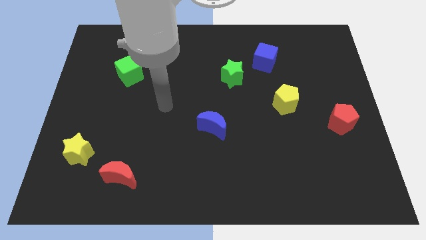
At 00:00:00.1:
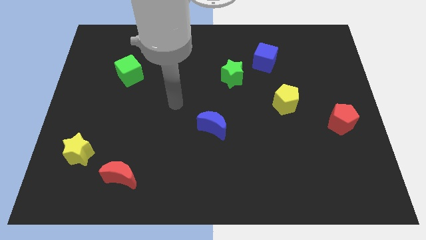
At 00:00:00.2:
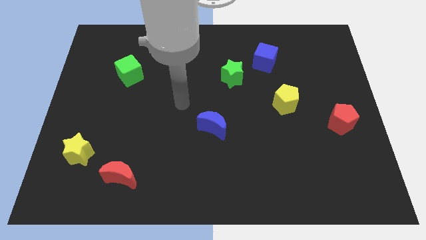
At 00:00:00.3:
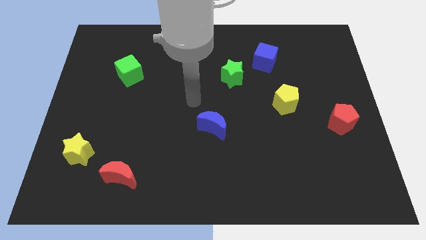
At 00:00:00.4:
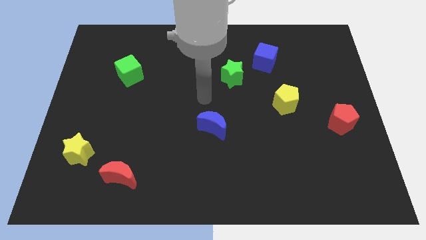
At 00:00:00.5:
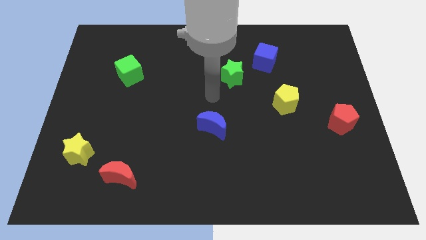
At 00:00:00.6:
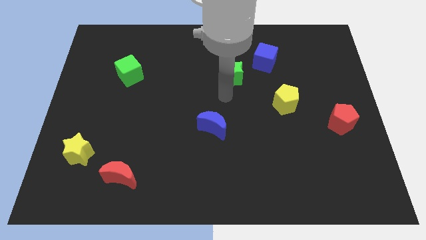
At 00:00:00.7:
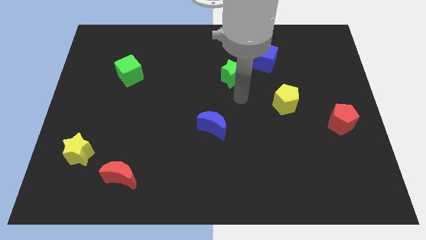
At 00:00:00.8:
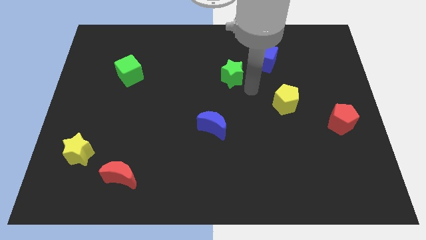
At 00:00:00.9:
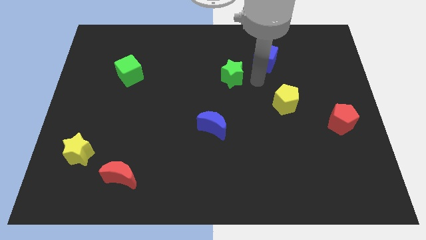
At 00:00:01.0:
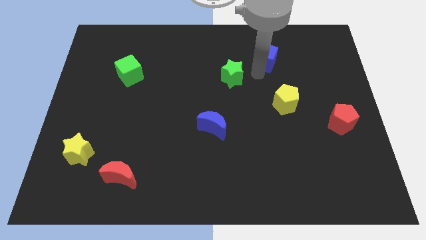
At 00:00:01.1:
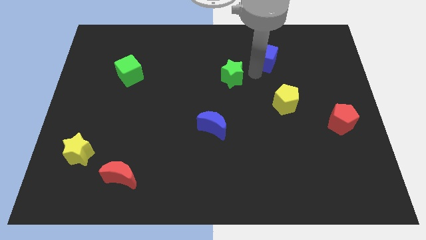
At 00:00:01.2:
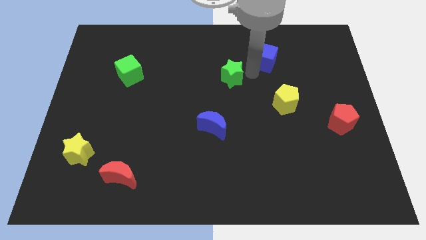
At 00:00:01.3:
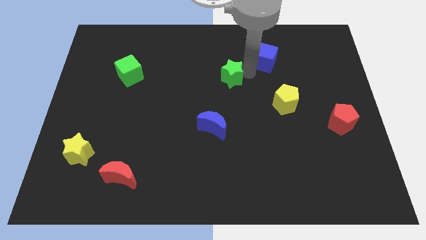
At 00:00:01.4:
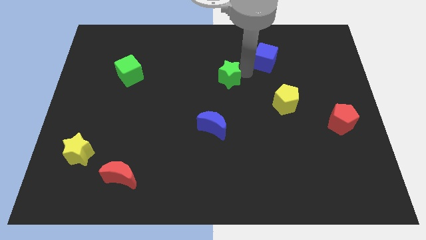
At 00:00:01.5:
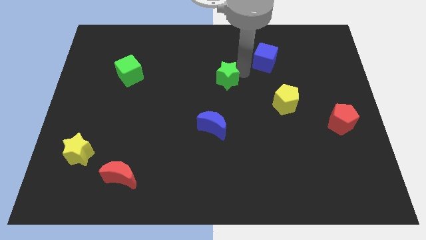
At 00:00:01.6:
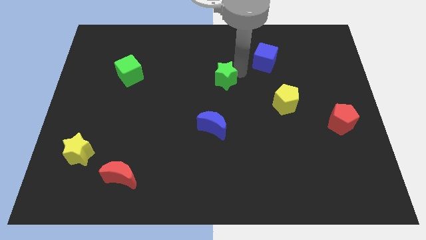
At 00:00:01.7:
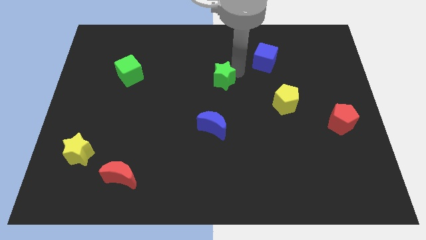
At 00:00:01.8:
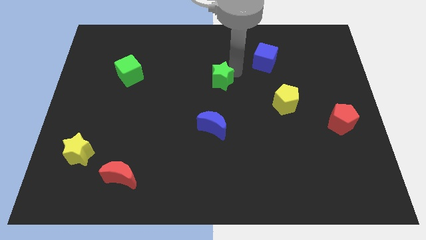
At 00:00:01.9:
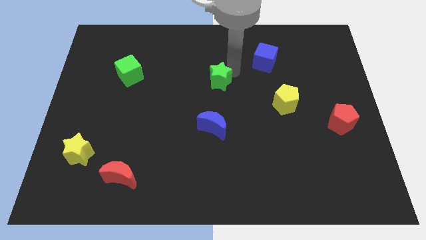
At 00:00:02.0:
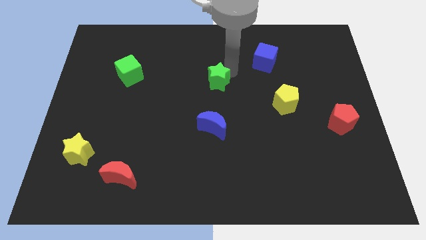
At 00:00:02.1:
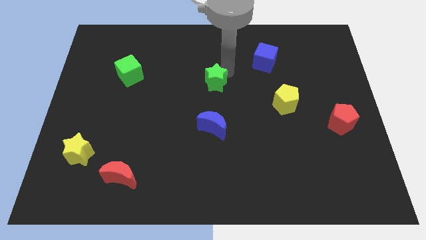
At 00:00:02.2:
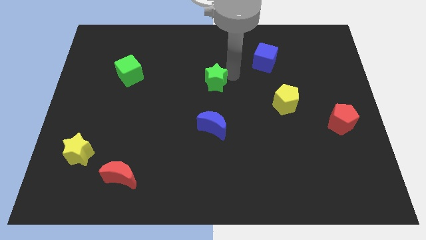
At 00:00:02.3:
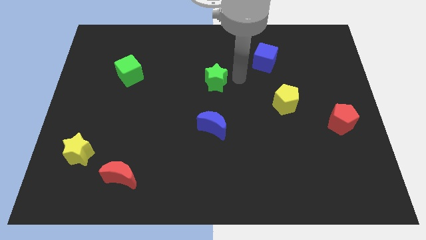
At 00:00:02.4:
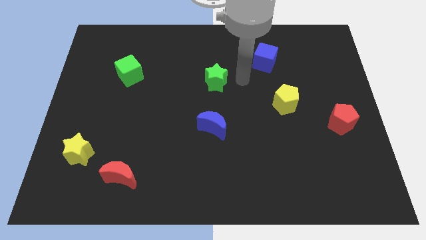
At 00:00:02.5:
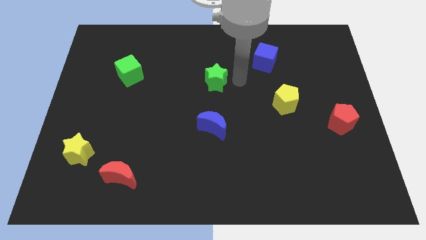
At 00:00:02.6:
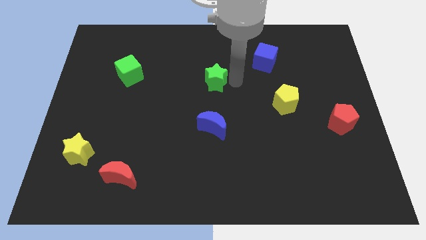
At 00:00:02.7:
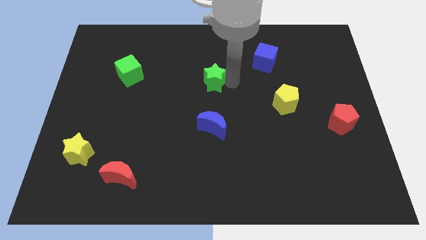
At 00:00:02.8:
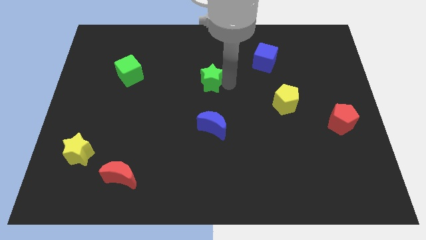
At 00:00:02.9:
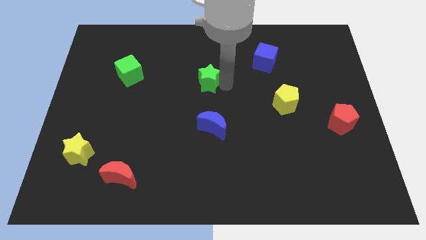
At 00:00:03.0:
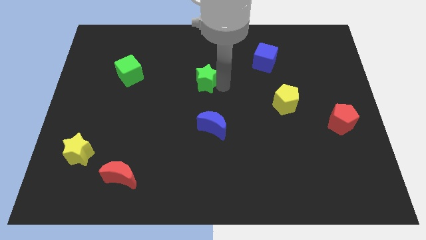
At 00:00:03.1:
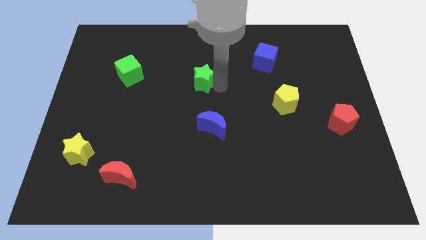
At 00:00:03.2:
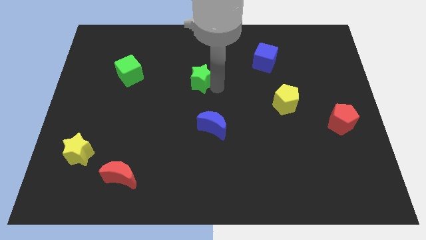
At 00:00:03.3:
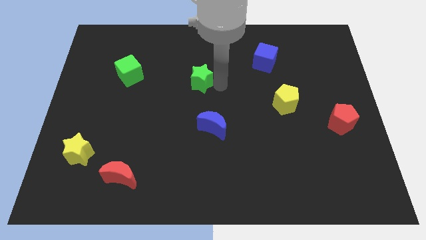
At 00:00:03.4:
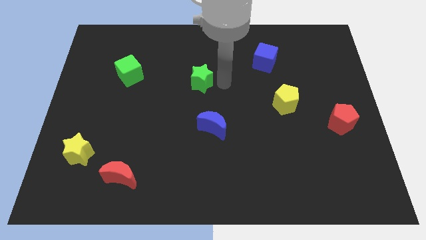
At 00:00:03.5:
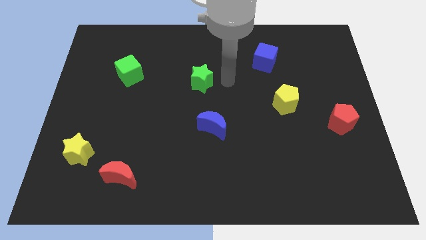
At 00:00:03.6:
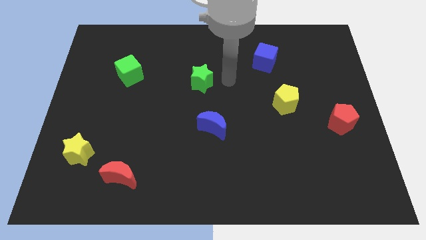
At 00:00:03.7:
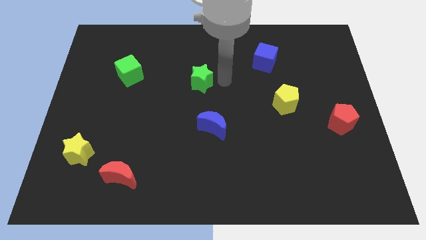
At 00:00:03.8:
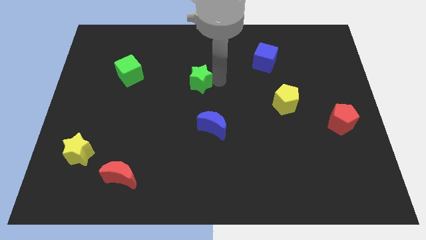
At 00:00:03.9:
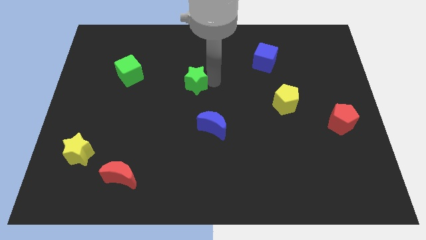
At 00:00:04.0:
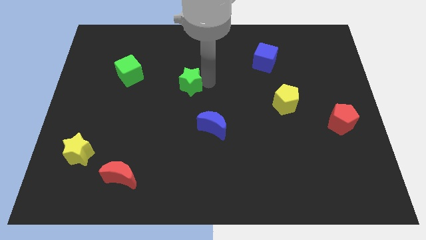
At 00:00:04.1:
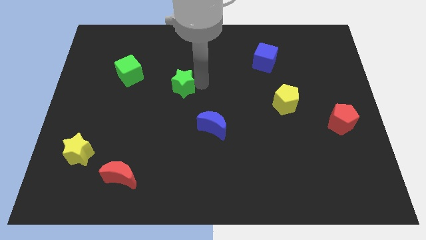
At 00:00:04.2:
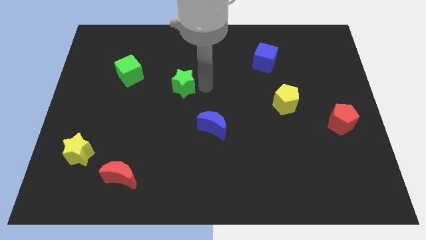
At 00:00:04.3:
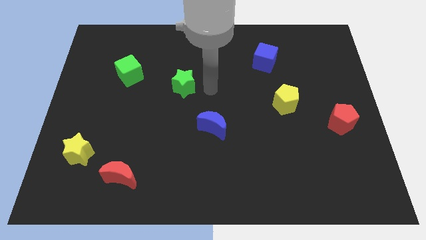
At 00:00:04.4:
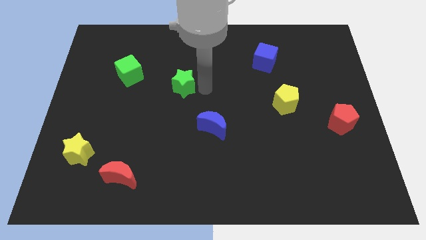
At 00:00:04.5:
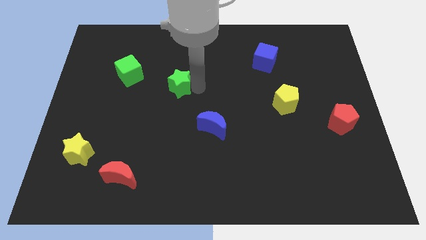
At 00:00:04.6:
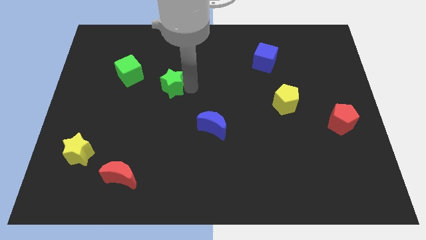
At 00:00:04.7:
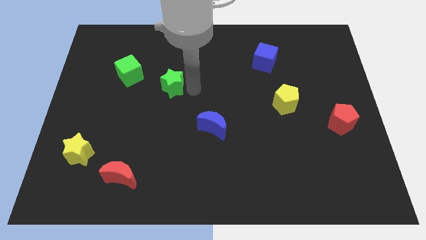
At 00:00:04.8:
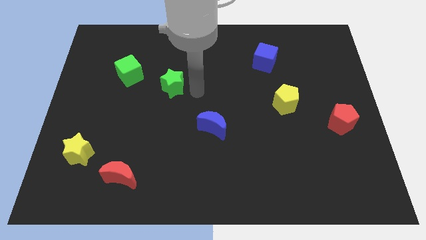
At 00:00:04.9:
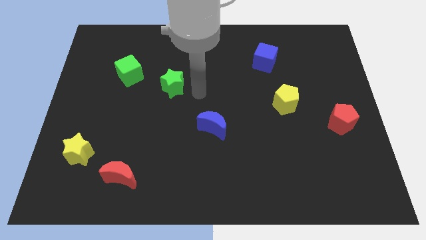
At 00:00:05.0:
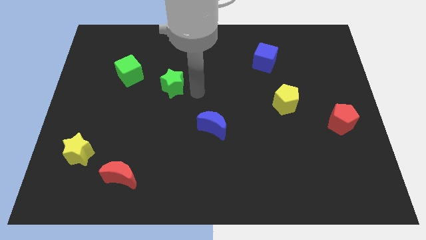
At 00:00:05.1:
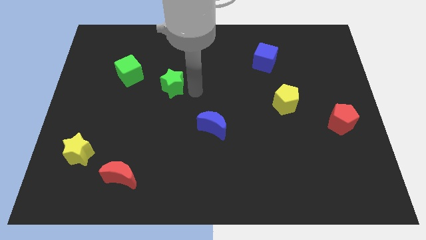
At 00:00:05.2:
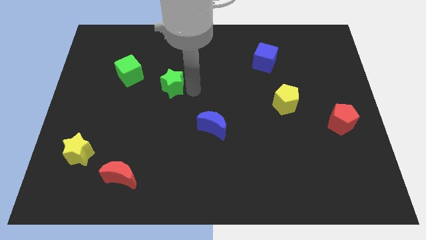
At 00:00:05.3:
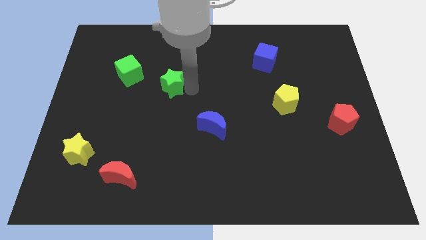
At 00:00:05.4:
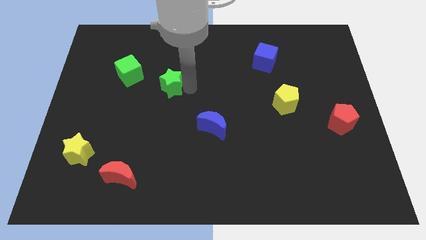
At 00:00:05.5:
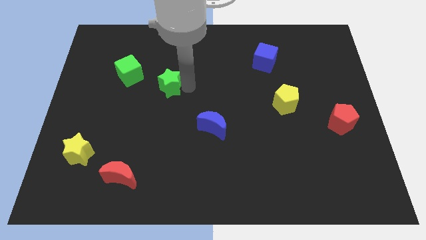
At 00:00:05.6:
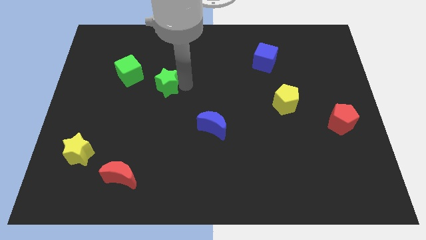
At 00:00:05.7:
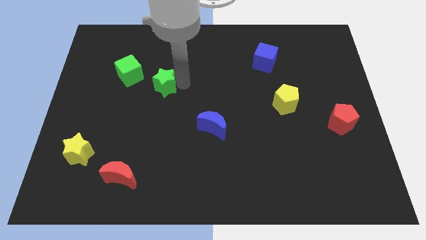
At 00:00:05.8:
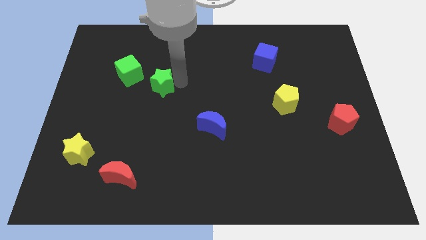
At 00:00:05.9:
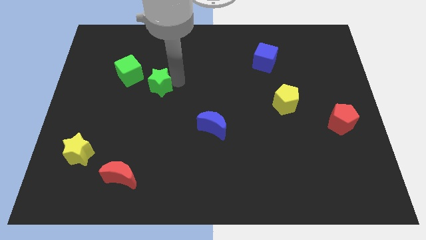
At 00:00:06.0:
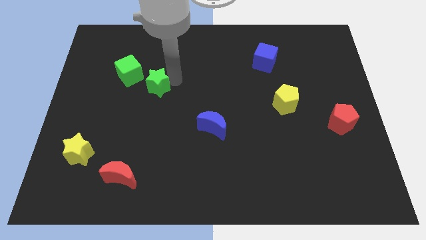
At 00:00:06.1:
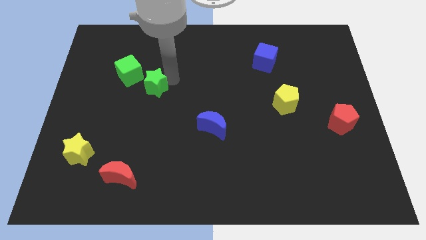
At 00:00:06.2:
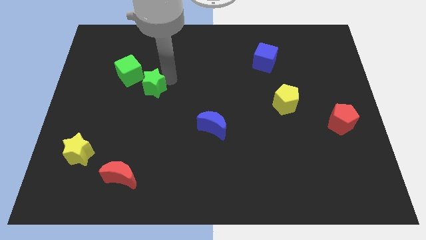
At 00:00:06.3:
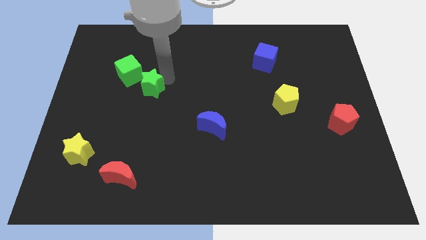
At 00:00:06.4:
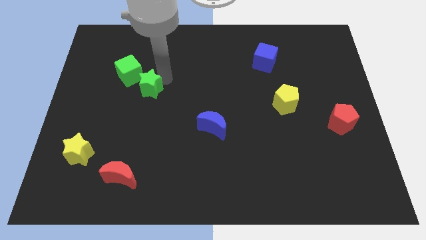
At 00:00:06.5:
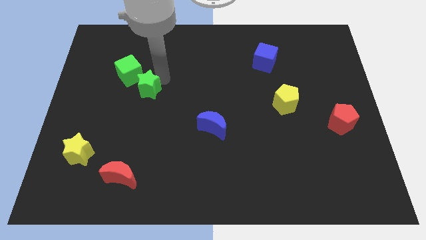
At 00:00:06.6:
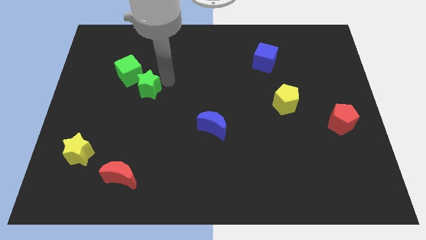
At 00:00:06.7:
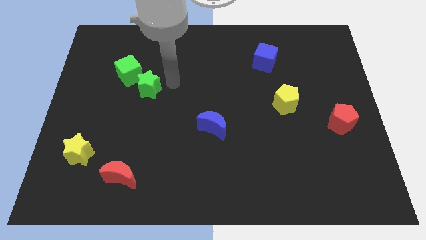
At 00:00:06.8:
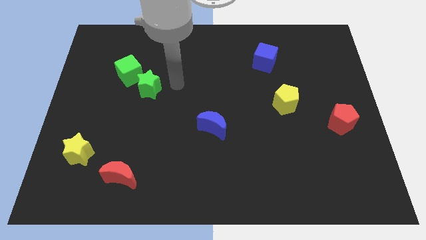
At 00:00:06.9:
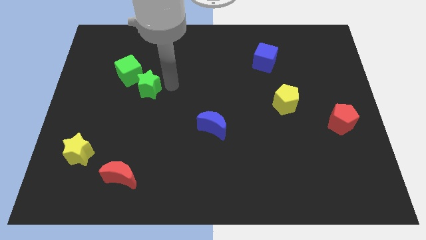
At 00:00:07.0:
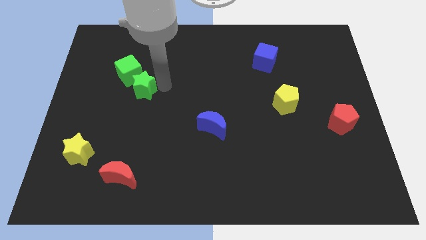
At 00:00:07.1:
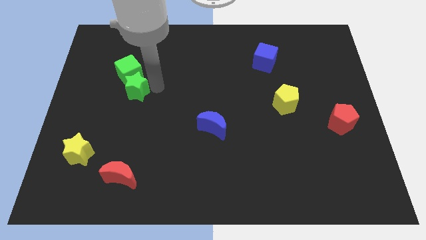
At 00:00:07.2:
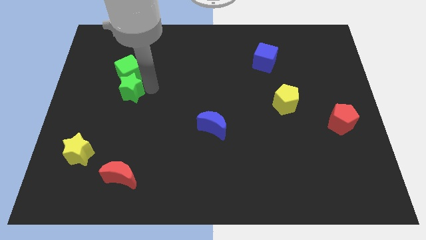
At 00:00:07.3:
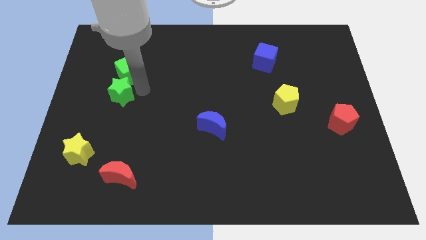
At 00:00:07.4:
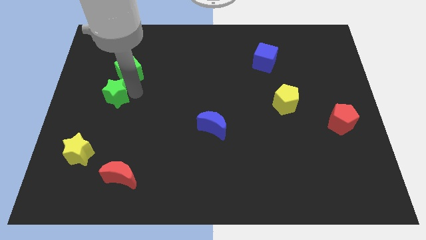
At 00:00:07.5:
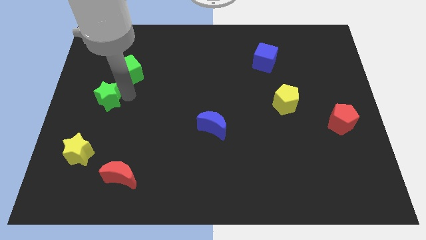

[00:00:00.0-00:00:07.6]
slide the green star to the left side of the board
